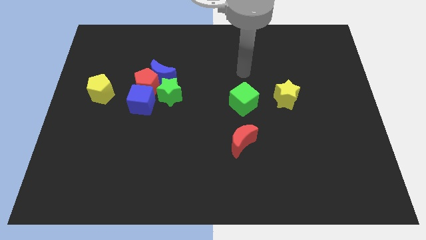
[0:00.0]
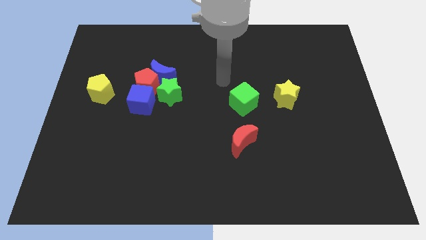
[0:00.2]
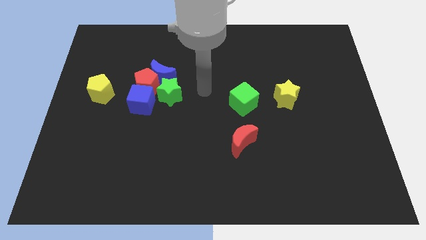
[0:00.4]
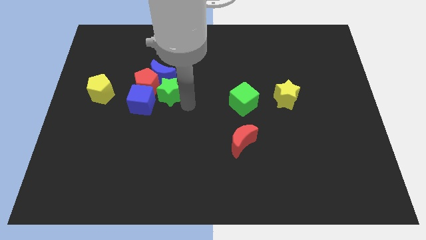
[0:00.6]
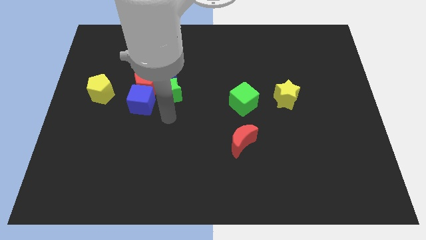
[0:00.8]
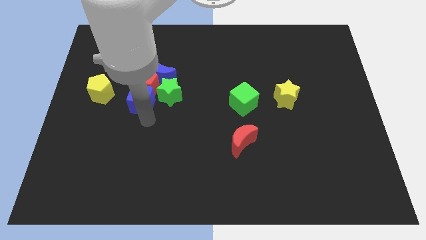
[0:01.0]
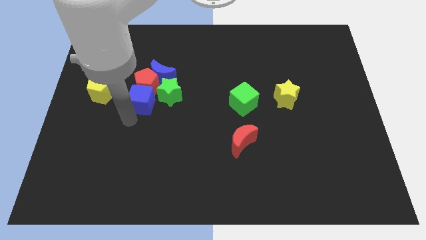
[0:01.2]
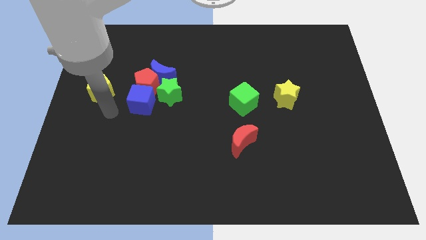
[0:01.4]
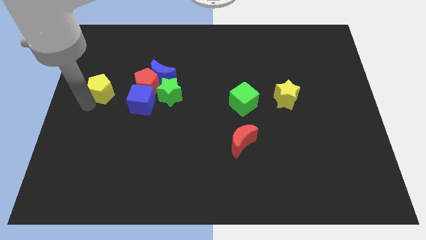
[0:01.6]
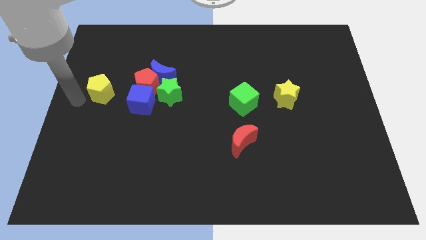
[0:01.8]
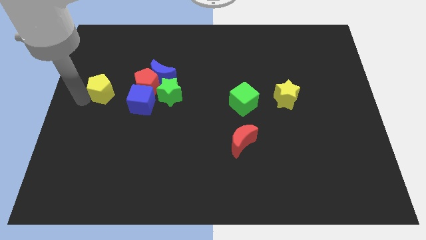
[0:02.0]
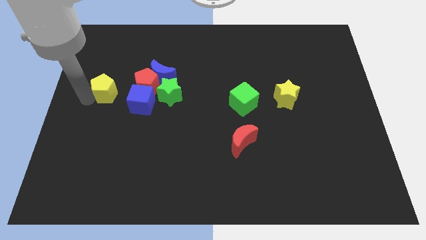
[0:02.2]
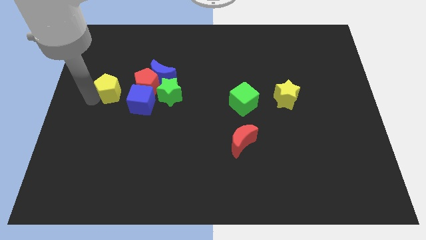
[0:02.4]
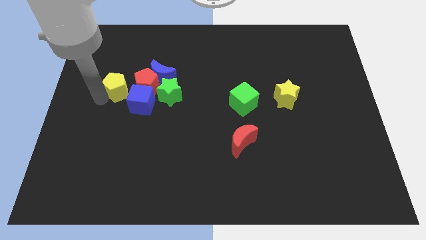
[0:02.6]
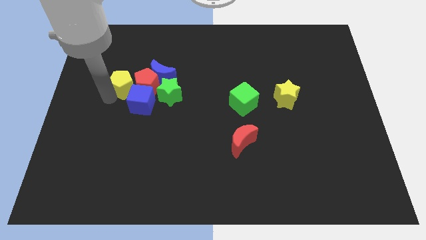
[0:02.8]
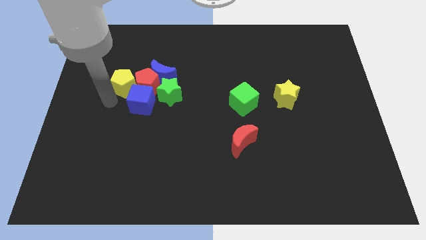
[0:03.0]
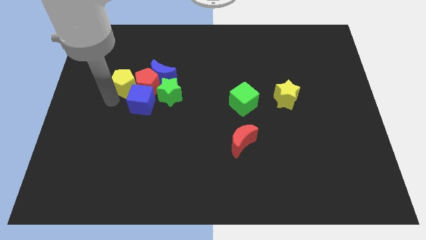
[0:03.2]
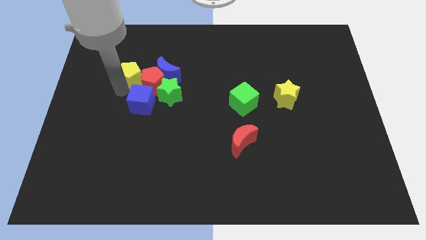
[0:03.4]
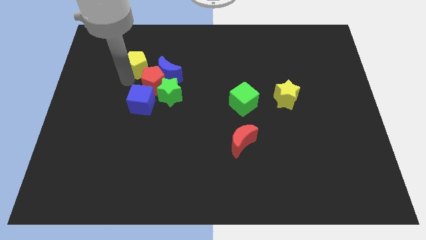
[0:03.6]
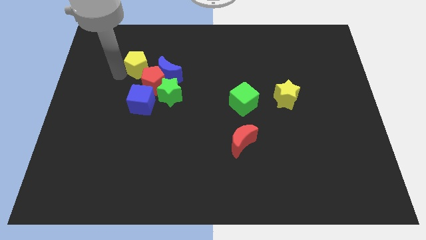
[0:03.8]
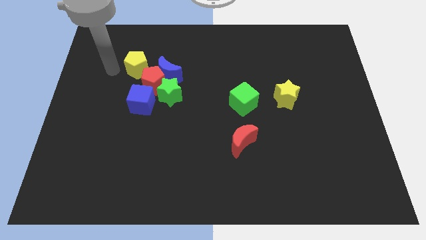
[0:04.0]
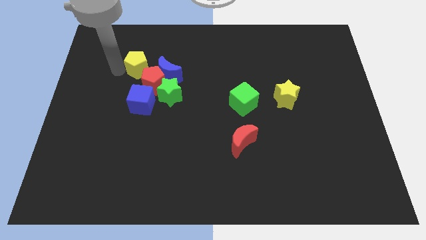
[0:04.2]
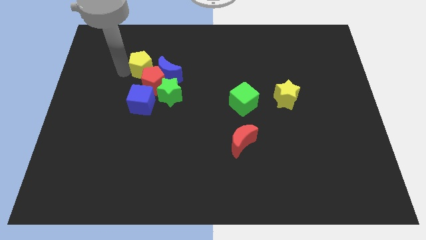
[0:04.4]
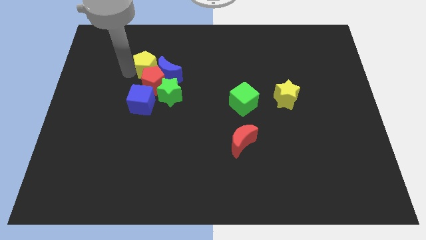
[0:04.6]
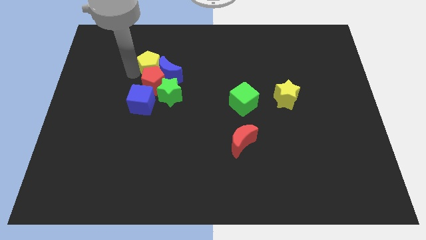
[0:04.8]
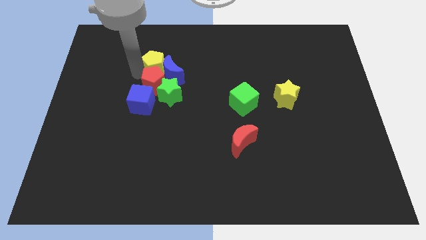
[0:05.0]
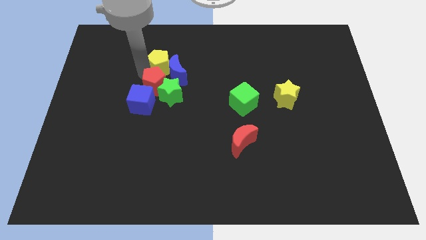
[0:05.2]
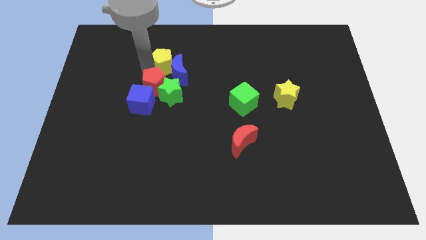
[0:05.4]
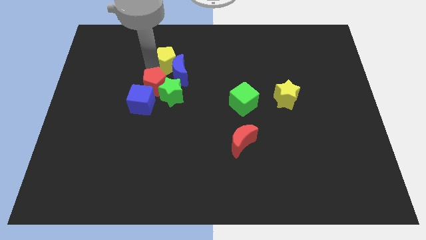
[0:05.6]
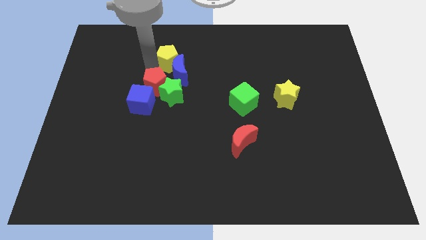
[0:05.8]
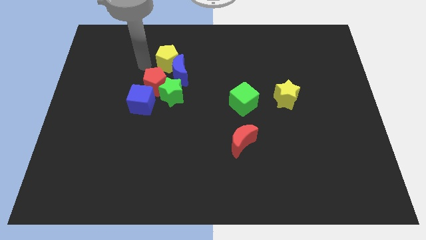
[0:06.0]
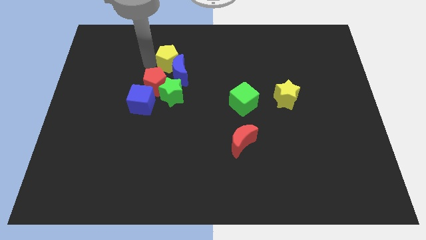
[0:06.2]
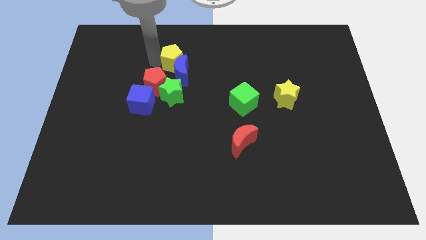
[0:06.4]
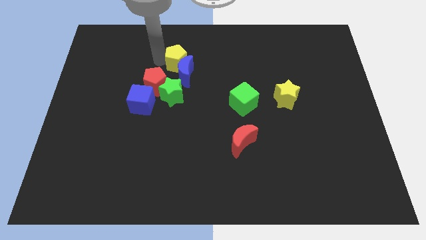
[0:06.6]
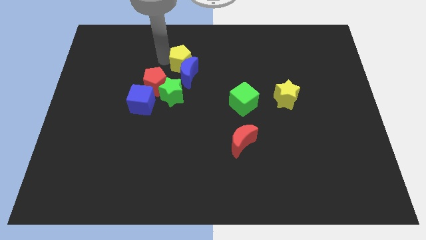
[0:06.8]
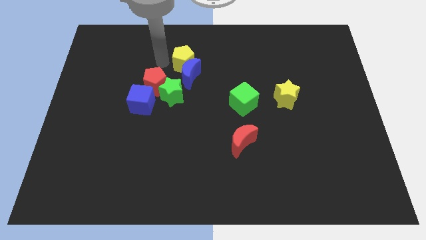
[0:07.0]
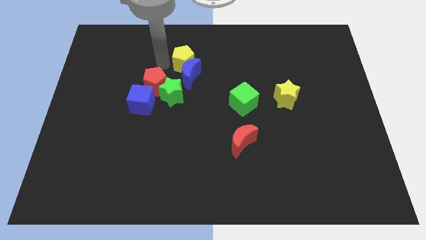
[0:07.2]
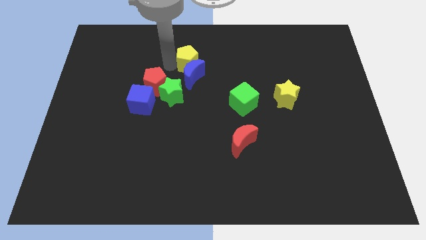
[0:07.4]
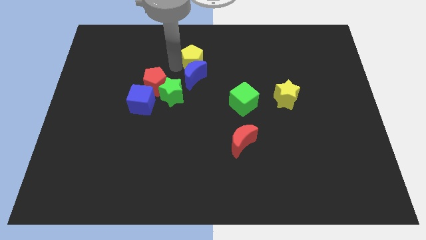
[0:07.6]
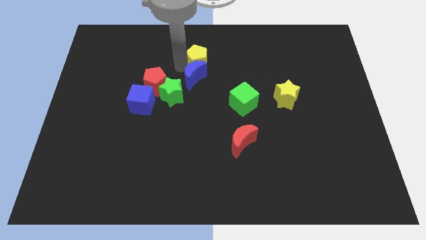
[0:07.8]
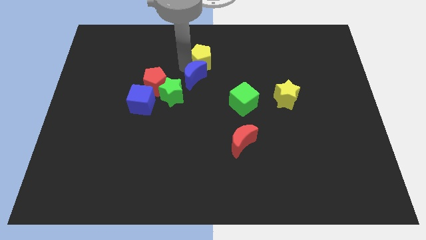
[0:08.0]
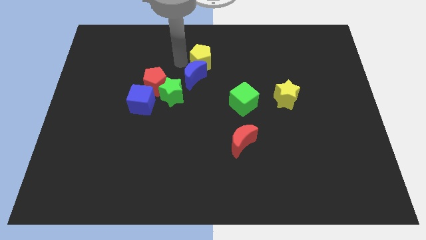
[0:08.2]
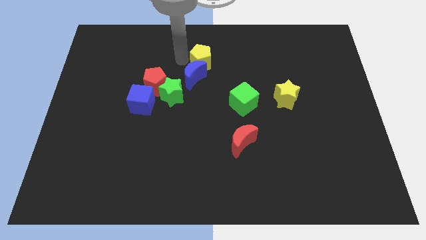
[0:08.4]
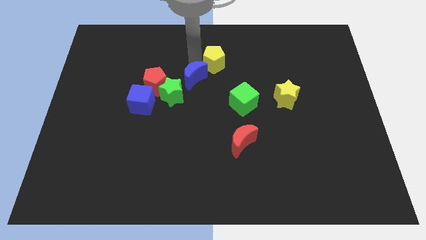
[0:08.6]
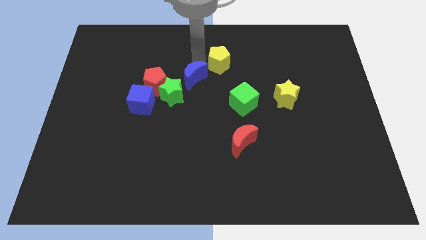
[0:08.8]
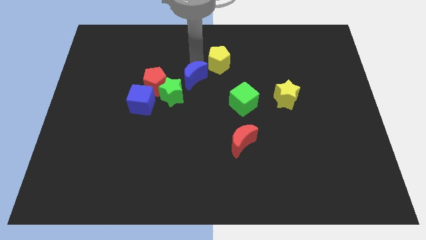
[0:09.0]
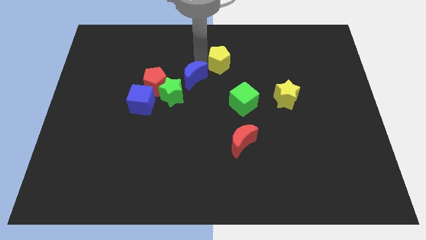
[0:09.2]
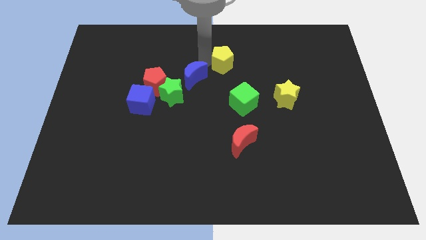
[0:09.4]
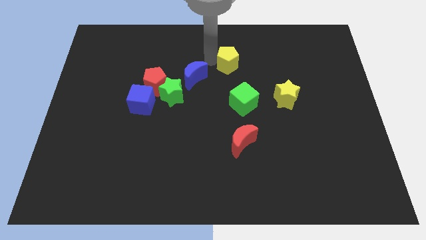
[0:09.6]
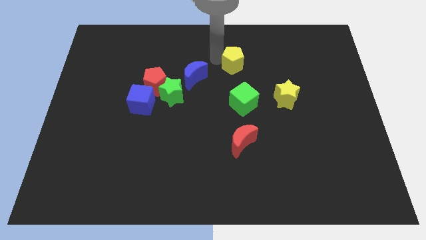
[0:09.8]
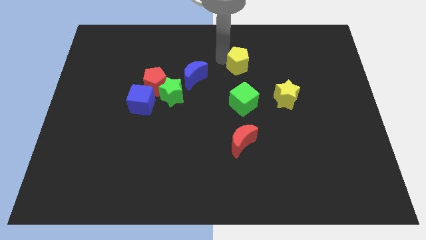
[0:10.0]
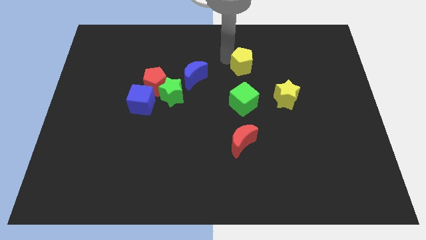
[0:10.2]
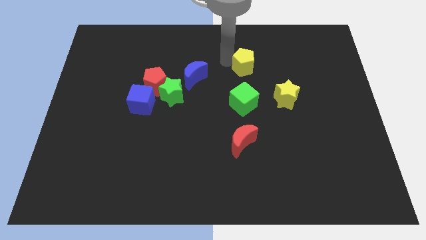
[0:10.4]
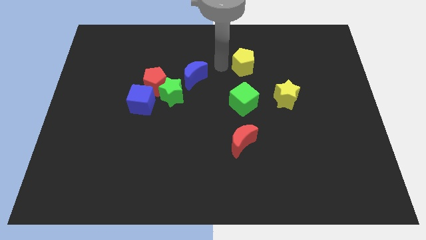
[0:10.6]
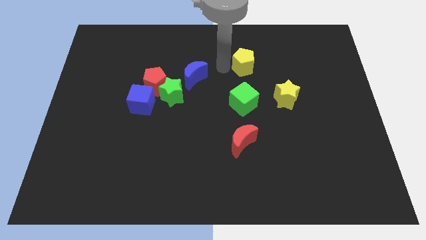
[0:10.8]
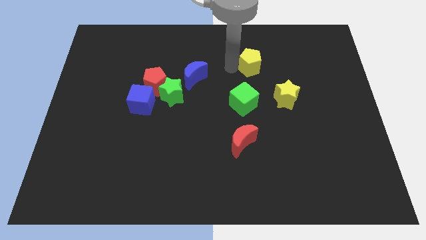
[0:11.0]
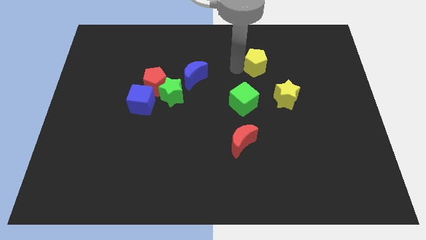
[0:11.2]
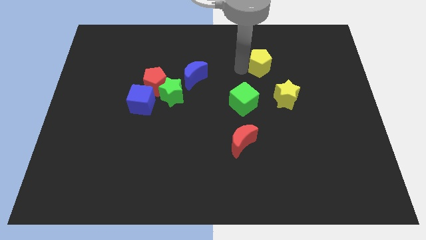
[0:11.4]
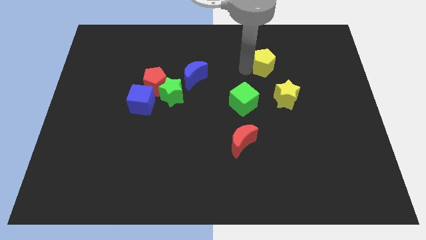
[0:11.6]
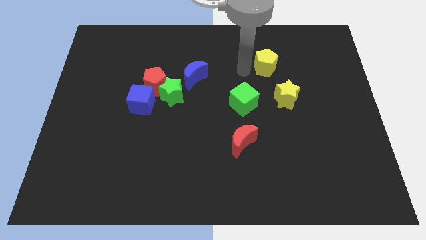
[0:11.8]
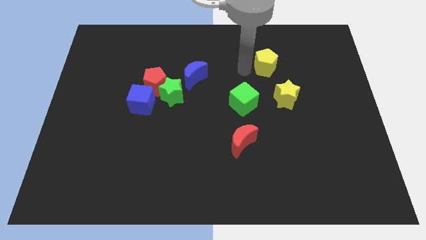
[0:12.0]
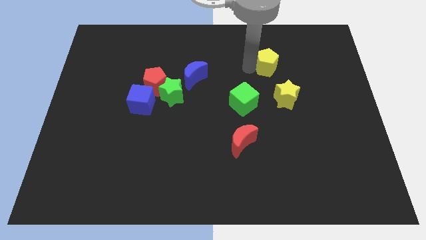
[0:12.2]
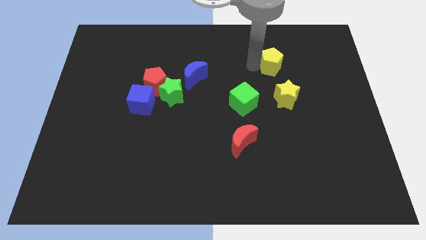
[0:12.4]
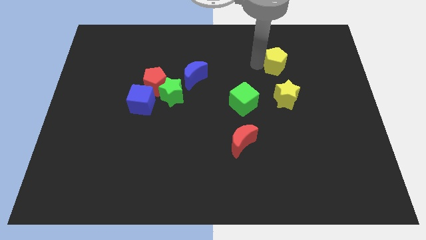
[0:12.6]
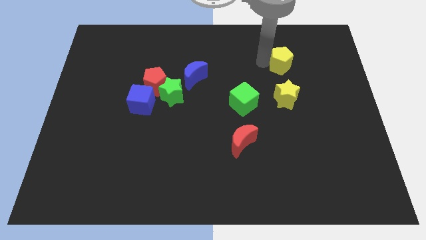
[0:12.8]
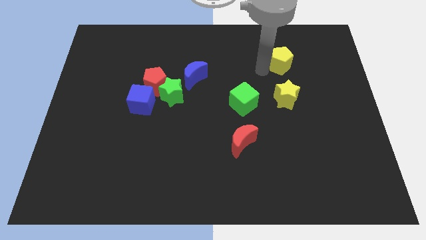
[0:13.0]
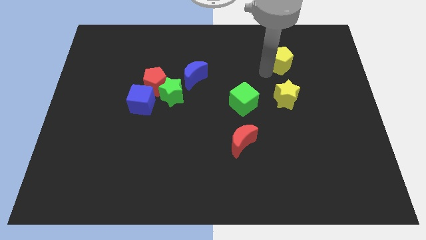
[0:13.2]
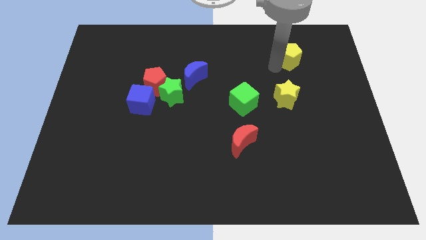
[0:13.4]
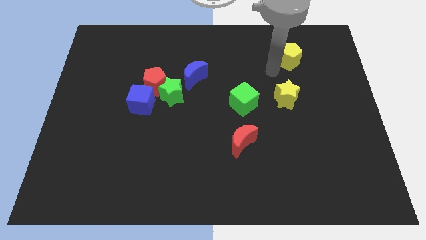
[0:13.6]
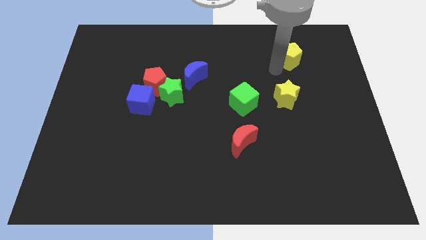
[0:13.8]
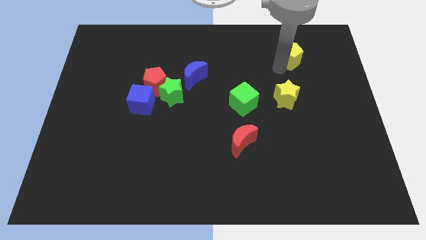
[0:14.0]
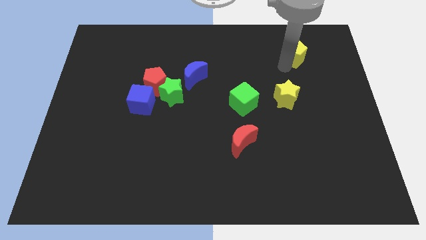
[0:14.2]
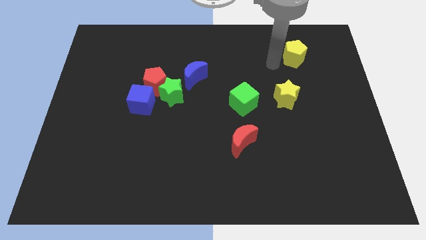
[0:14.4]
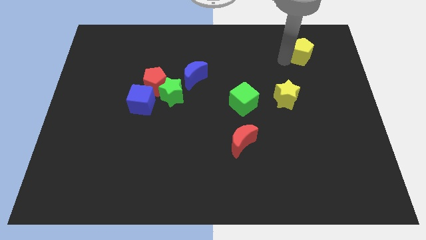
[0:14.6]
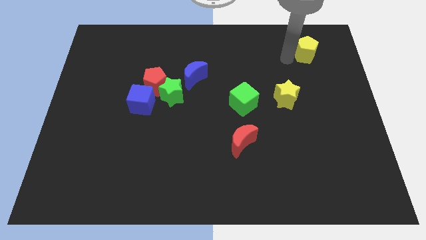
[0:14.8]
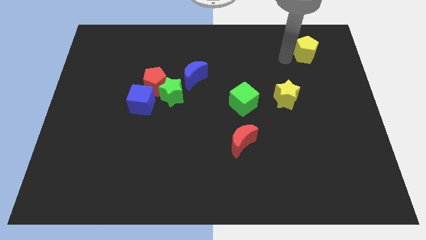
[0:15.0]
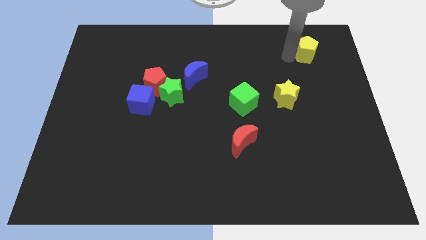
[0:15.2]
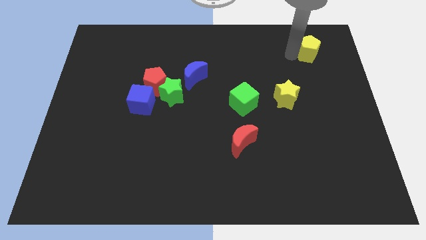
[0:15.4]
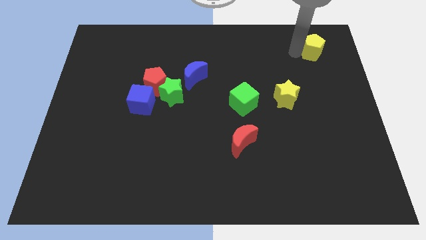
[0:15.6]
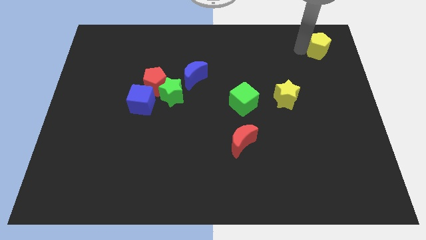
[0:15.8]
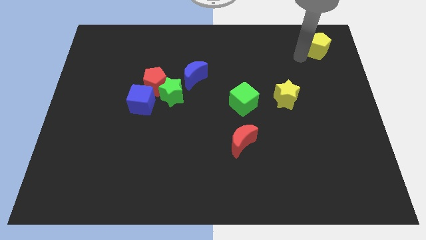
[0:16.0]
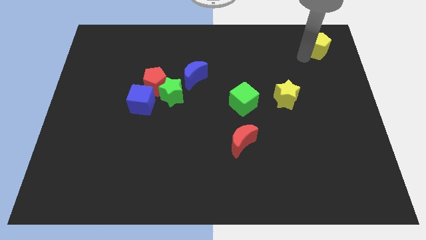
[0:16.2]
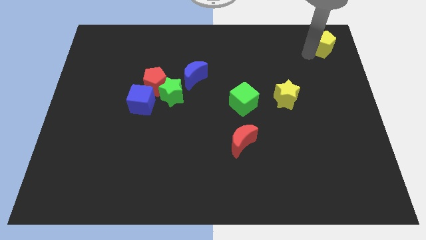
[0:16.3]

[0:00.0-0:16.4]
move the yellow pentagon to the top right corner
